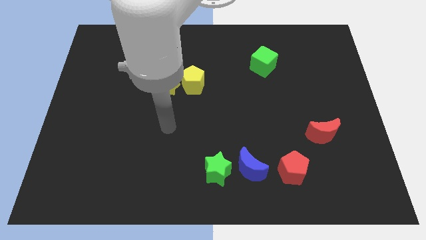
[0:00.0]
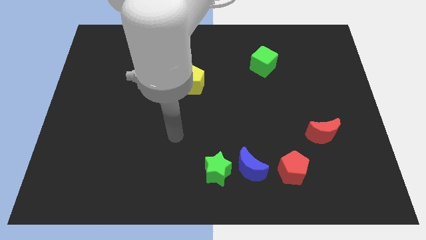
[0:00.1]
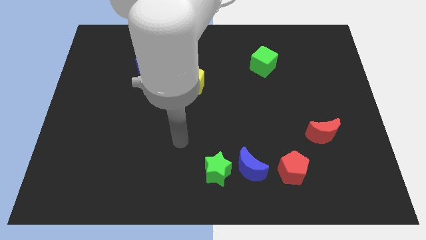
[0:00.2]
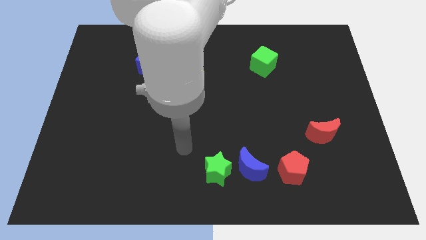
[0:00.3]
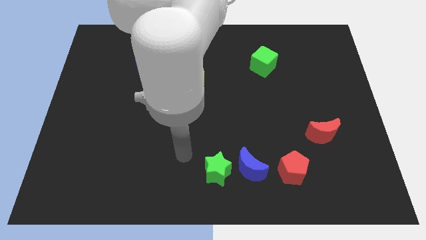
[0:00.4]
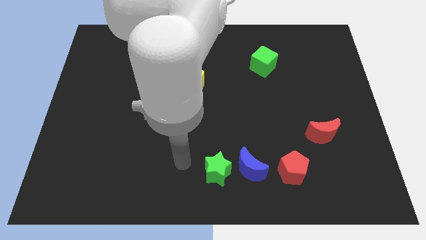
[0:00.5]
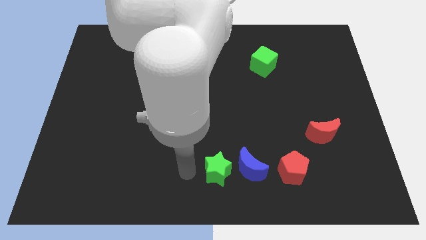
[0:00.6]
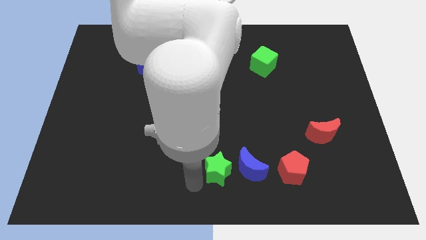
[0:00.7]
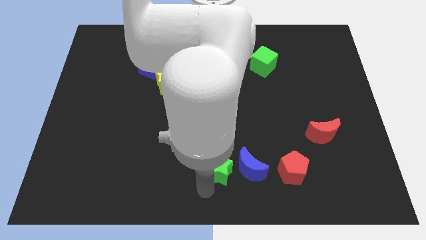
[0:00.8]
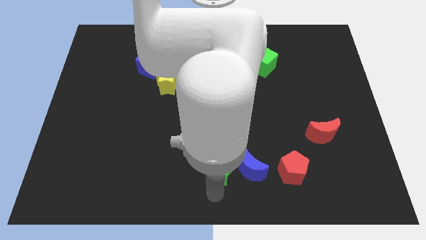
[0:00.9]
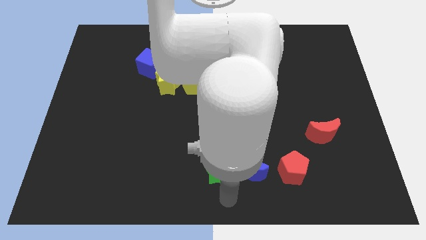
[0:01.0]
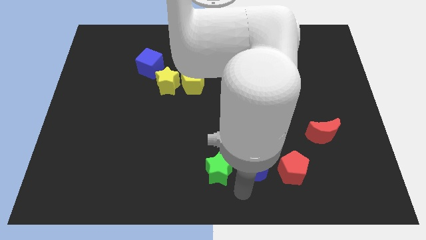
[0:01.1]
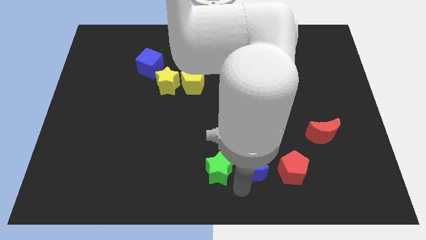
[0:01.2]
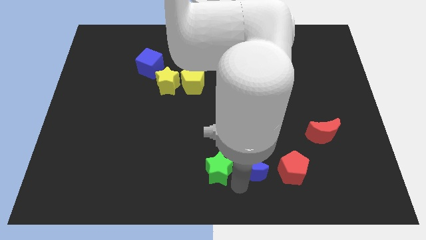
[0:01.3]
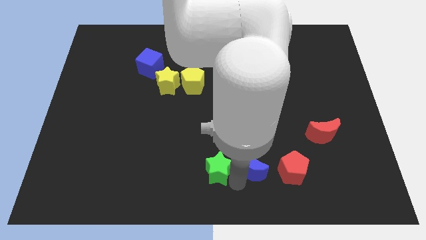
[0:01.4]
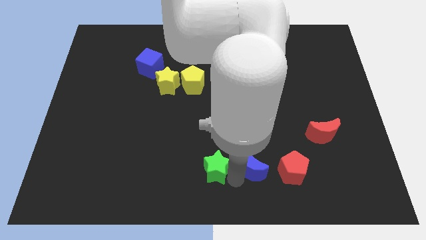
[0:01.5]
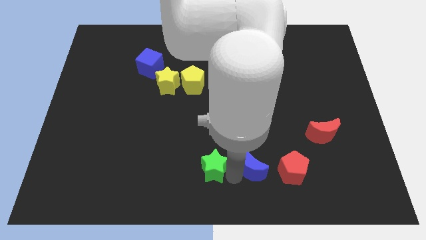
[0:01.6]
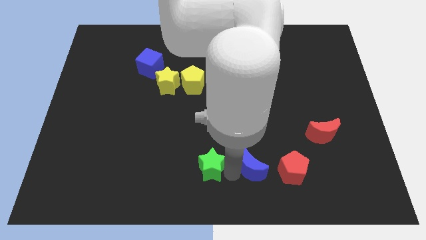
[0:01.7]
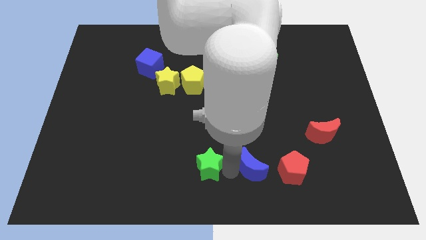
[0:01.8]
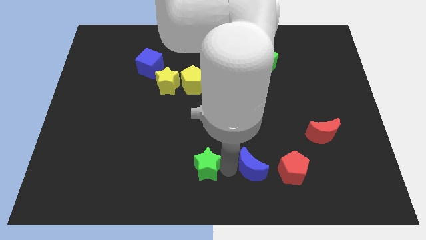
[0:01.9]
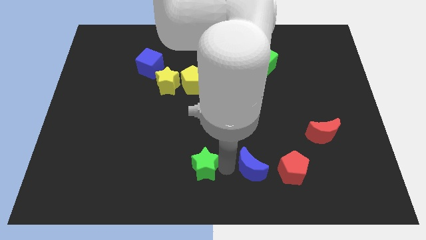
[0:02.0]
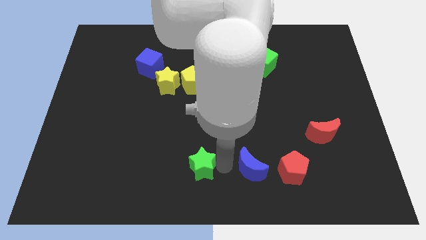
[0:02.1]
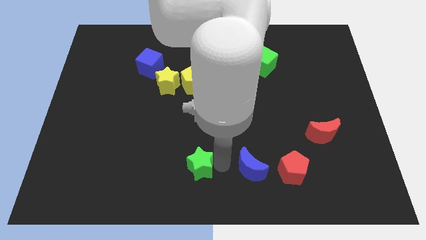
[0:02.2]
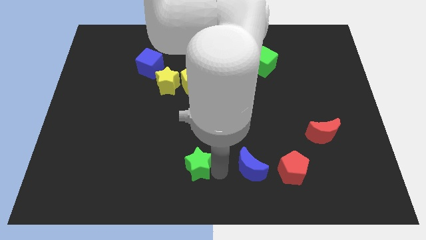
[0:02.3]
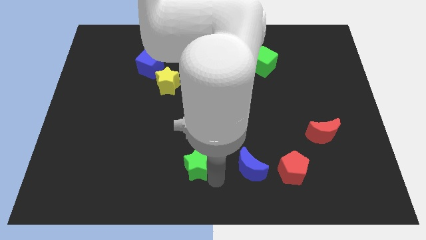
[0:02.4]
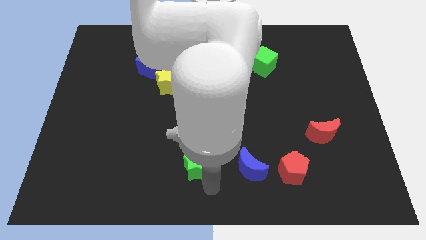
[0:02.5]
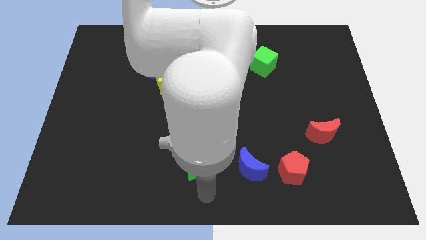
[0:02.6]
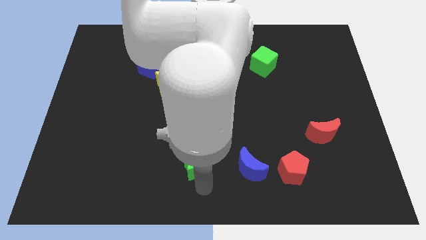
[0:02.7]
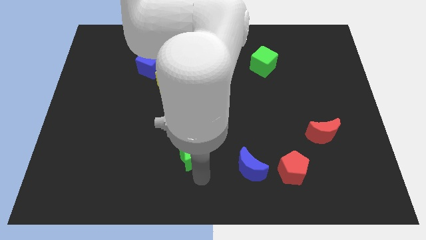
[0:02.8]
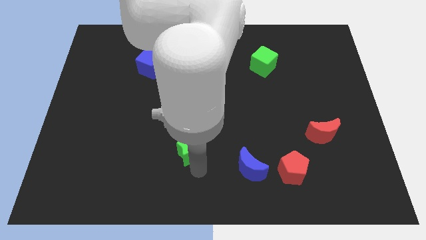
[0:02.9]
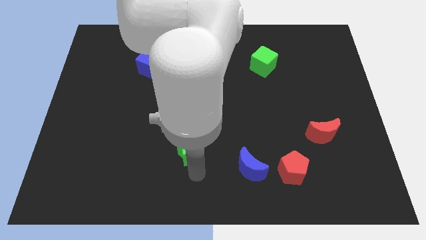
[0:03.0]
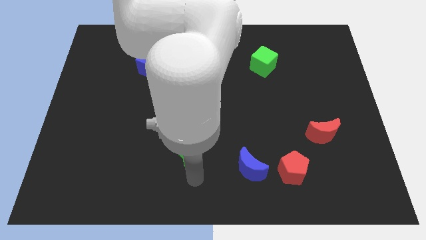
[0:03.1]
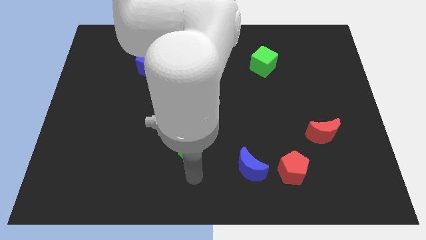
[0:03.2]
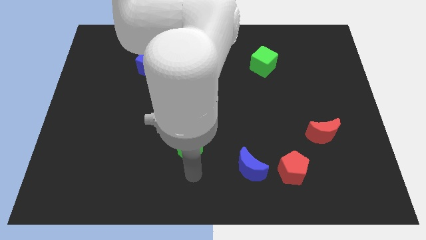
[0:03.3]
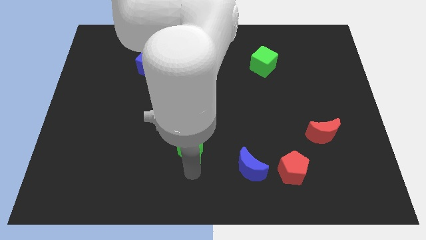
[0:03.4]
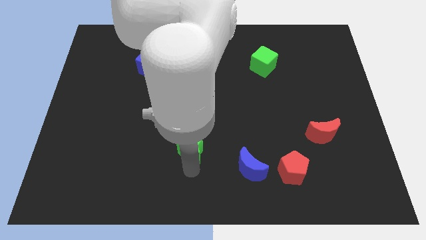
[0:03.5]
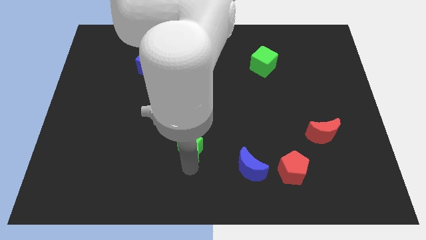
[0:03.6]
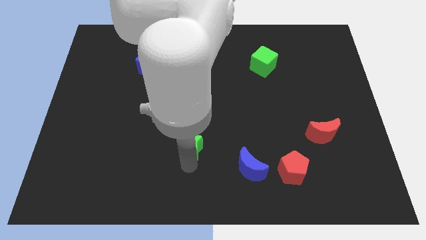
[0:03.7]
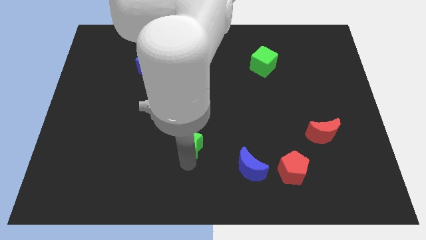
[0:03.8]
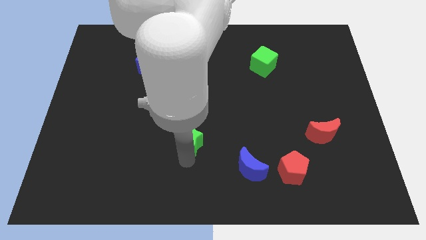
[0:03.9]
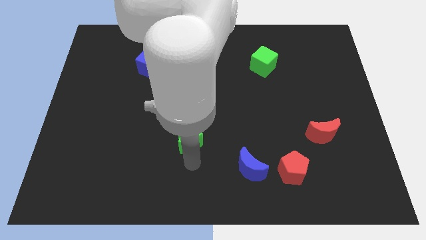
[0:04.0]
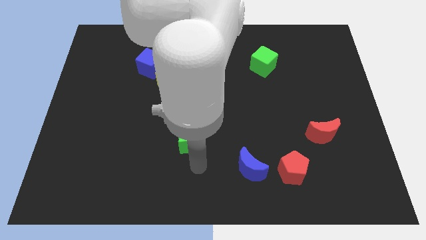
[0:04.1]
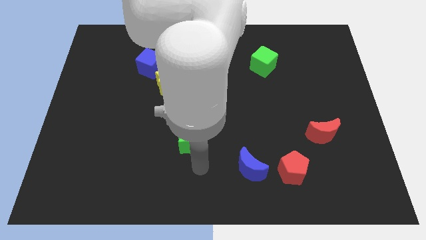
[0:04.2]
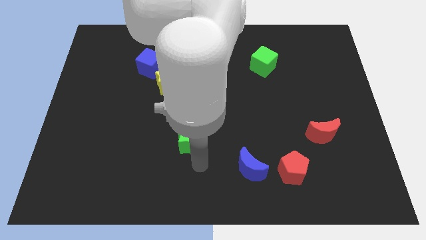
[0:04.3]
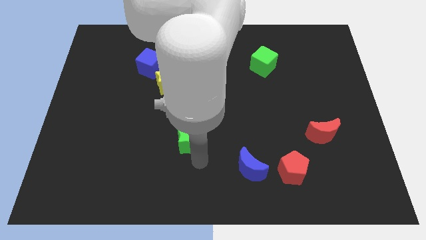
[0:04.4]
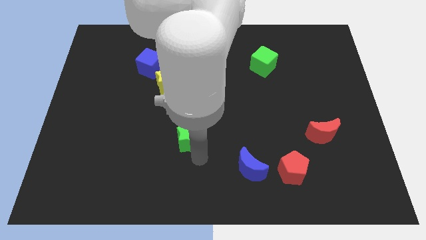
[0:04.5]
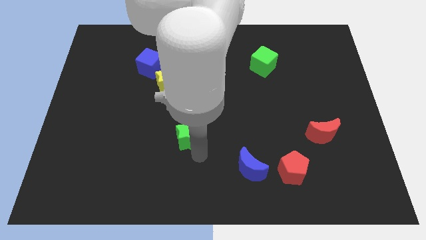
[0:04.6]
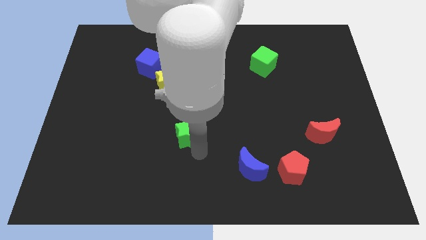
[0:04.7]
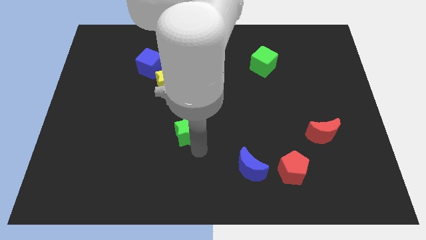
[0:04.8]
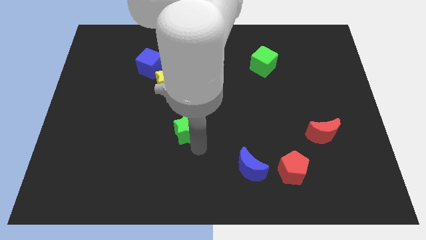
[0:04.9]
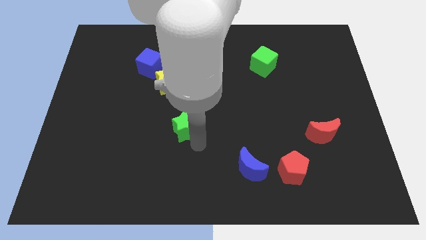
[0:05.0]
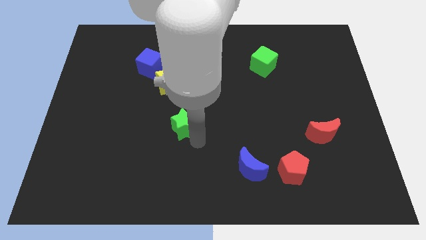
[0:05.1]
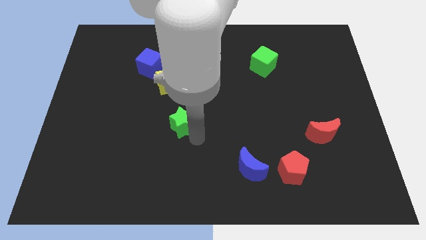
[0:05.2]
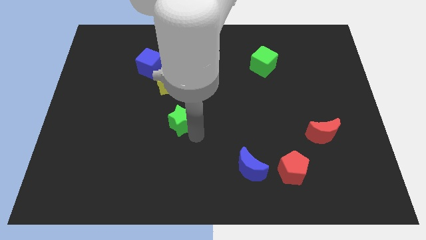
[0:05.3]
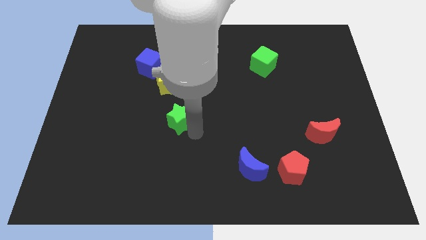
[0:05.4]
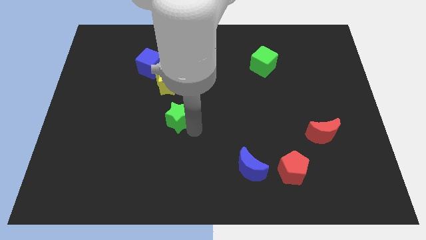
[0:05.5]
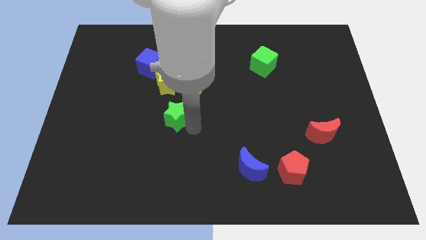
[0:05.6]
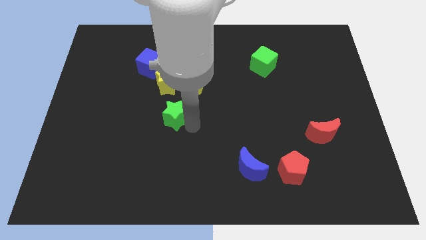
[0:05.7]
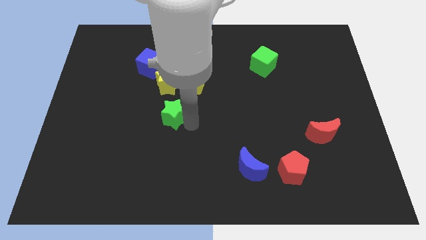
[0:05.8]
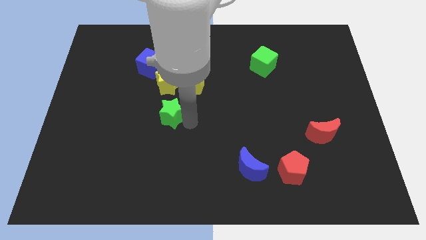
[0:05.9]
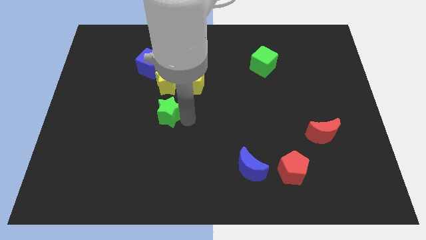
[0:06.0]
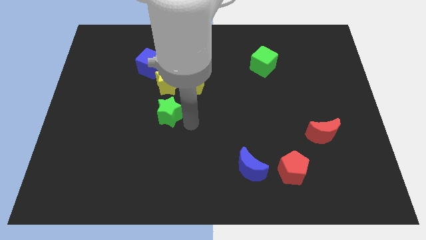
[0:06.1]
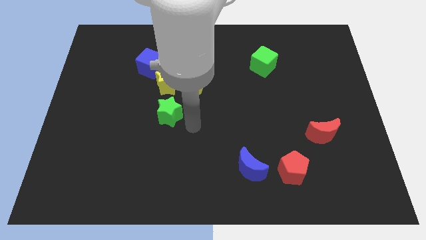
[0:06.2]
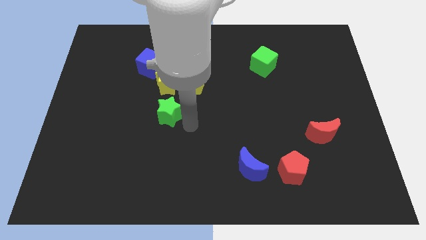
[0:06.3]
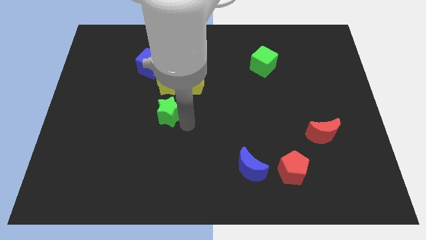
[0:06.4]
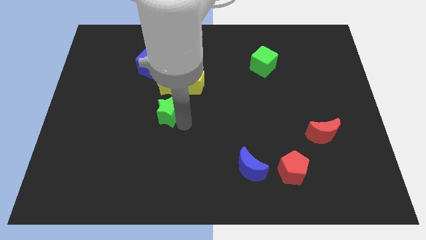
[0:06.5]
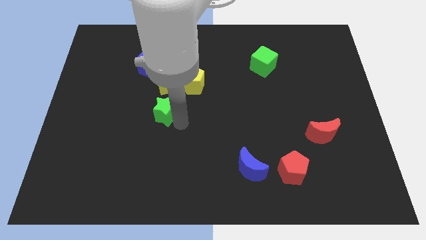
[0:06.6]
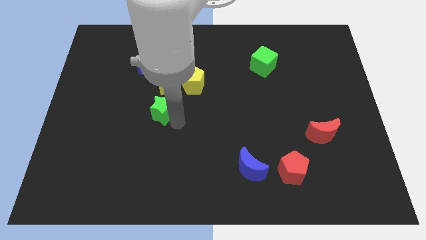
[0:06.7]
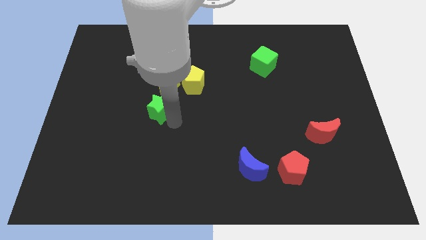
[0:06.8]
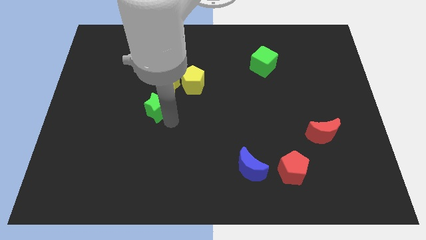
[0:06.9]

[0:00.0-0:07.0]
slide the green star to the bottom left of the yellow star

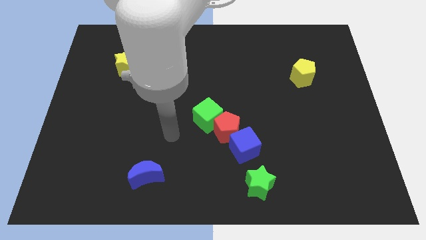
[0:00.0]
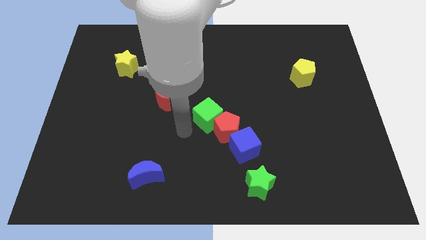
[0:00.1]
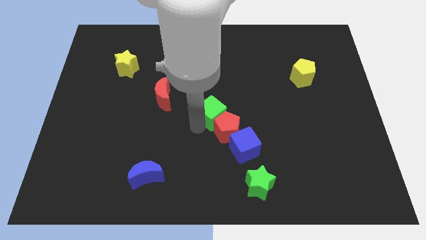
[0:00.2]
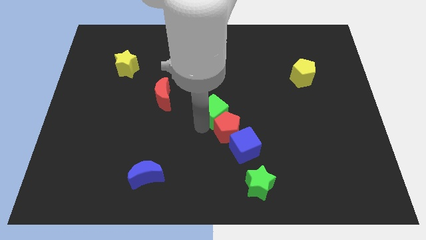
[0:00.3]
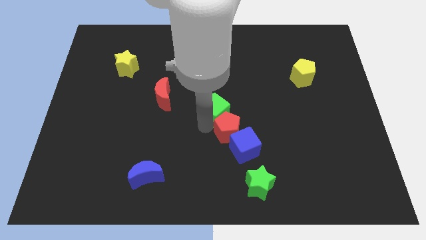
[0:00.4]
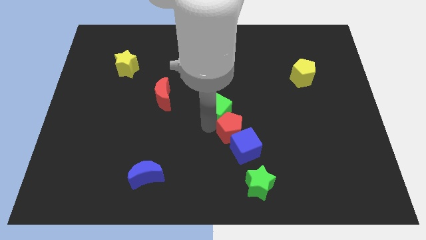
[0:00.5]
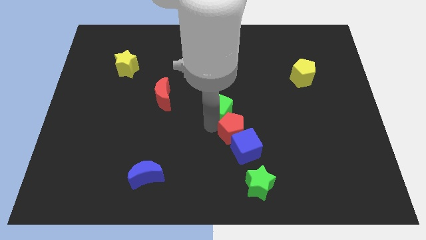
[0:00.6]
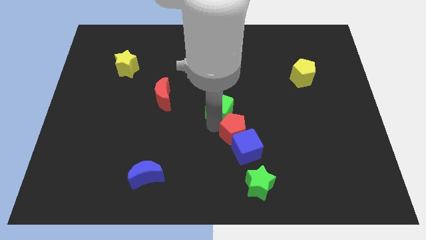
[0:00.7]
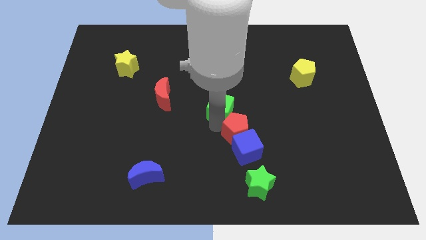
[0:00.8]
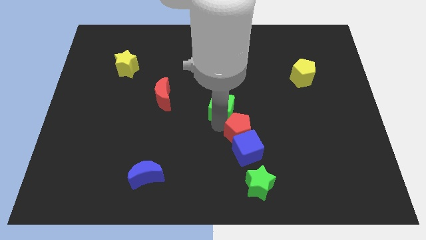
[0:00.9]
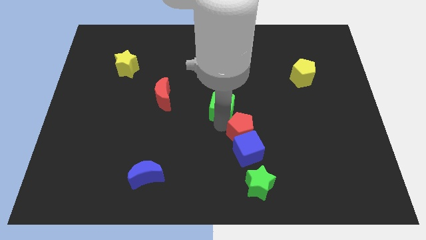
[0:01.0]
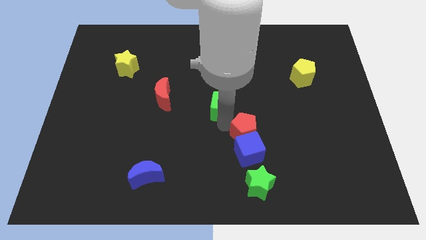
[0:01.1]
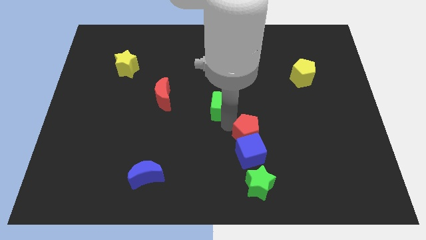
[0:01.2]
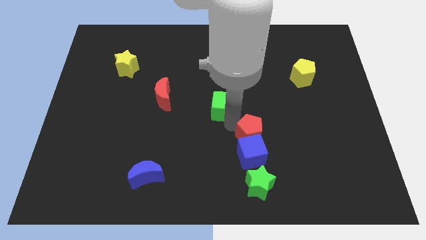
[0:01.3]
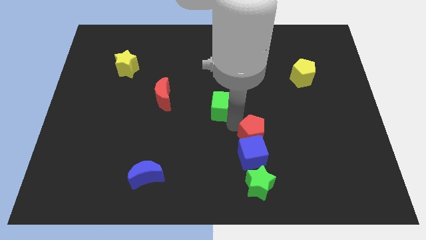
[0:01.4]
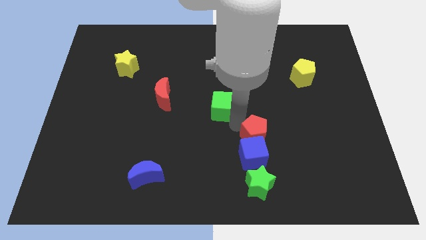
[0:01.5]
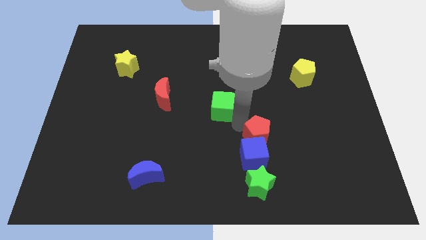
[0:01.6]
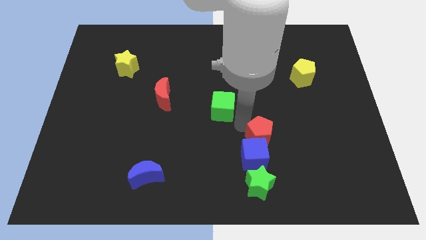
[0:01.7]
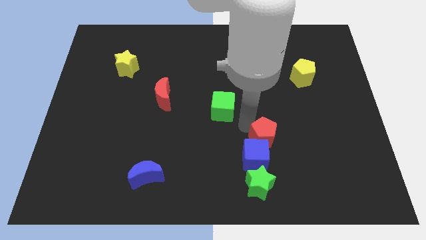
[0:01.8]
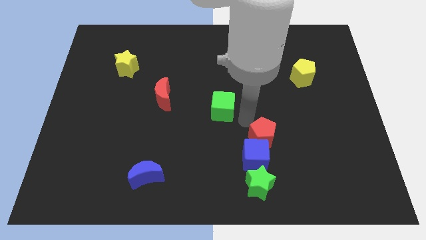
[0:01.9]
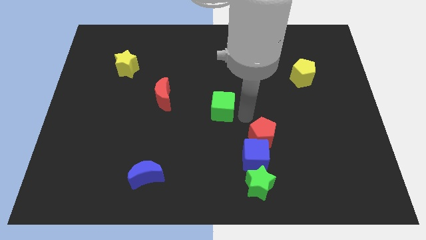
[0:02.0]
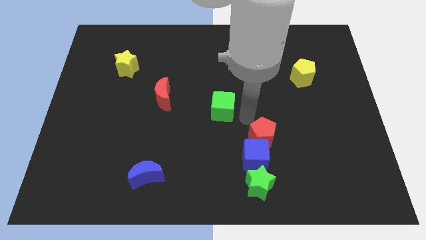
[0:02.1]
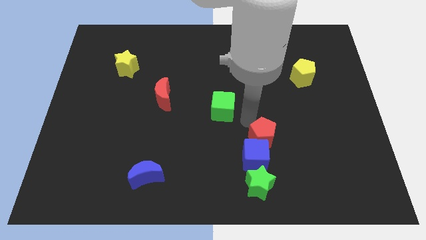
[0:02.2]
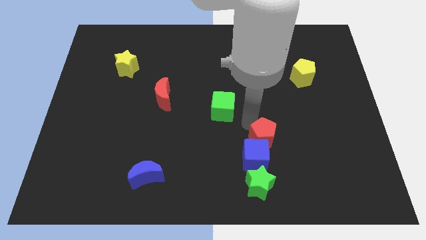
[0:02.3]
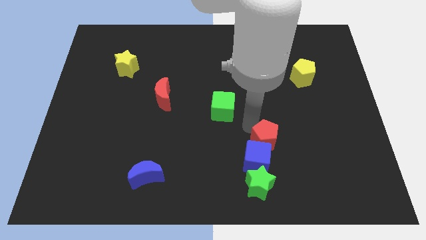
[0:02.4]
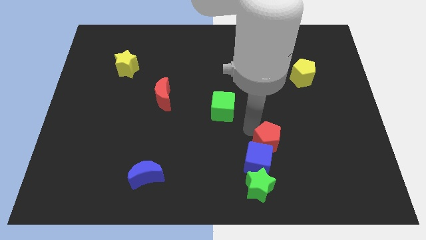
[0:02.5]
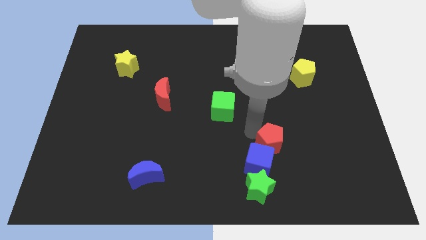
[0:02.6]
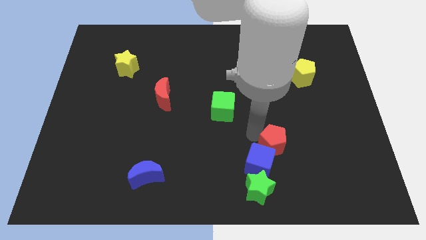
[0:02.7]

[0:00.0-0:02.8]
push the red pentagon to the top right of the green star
